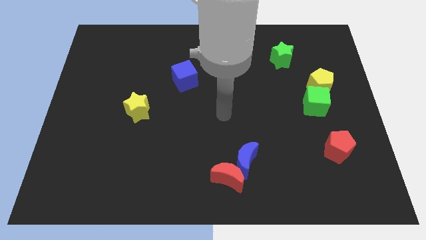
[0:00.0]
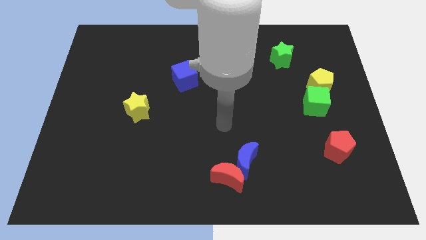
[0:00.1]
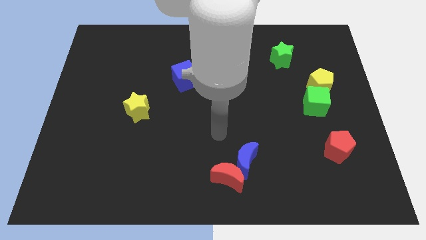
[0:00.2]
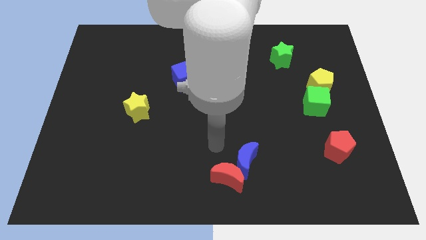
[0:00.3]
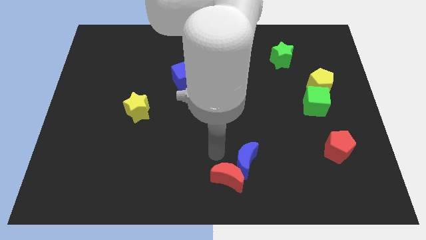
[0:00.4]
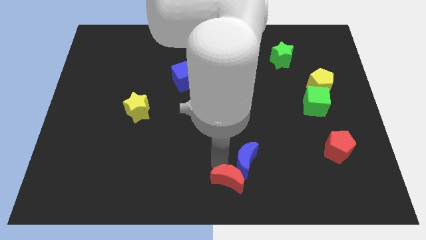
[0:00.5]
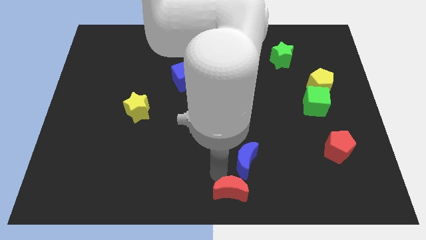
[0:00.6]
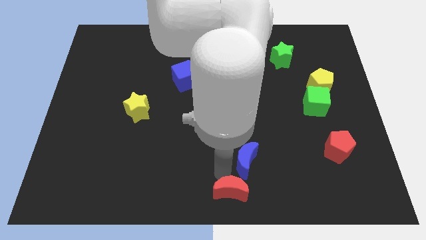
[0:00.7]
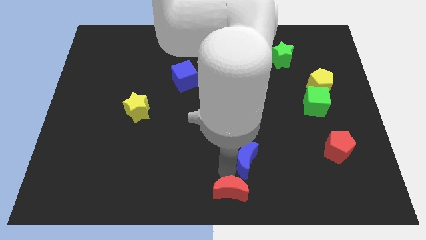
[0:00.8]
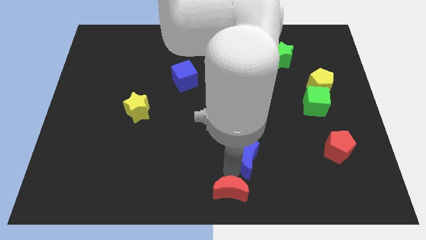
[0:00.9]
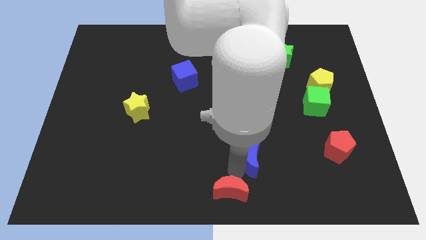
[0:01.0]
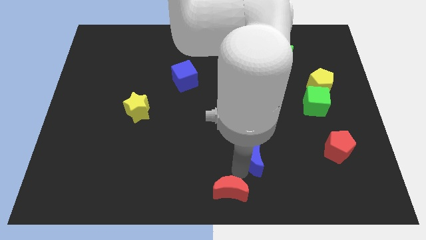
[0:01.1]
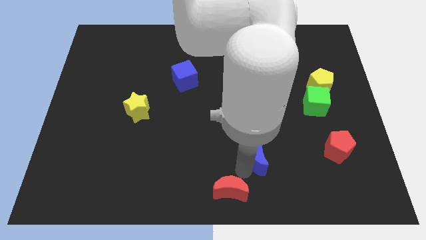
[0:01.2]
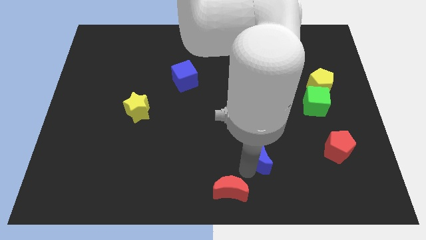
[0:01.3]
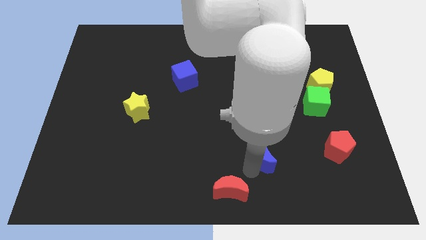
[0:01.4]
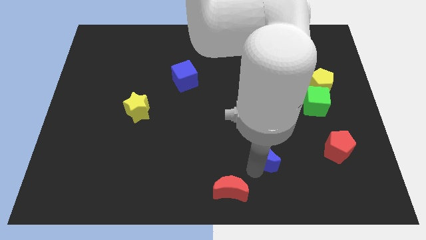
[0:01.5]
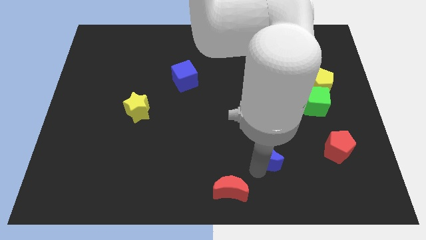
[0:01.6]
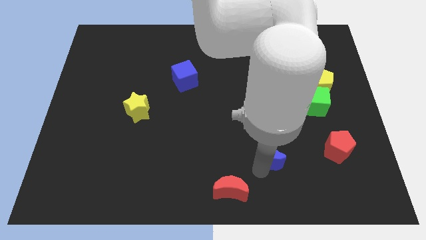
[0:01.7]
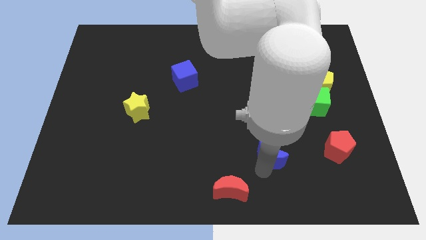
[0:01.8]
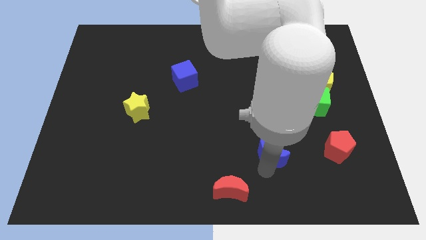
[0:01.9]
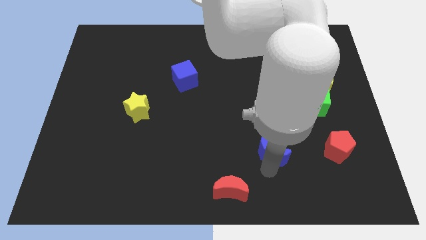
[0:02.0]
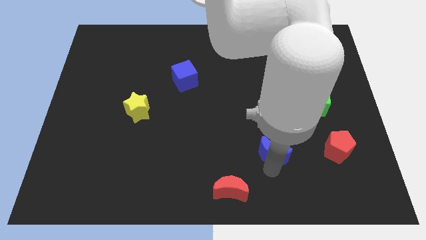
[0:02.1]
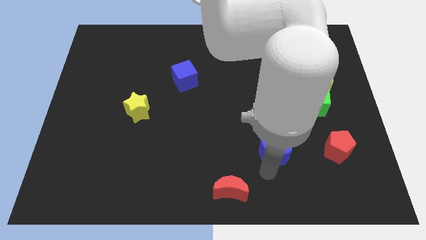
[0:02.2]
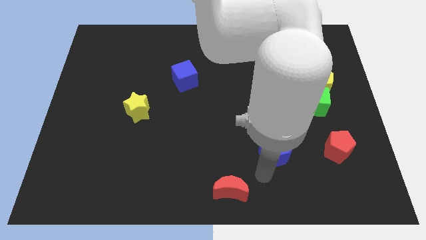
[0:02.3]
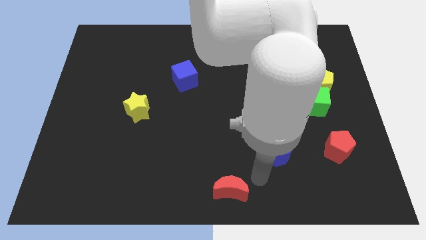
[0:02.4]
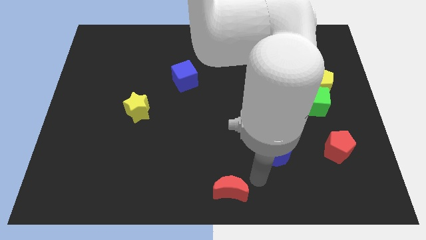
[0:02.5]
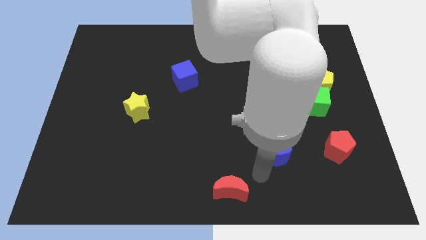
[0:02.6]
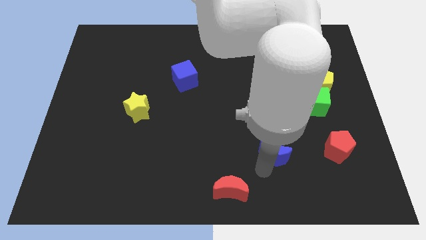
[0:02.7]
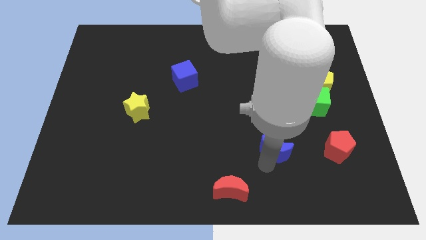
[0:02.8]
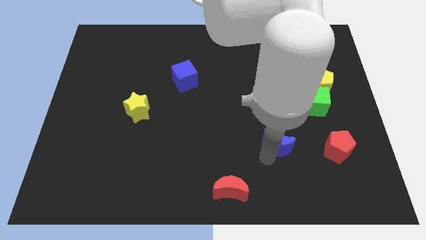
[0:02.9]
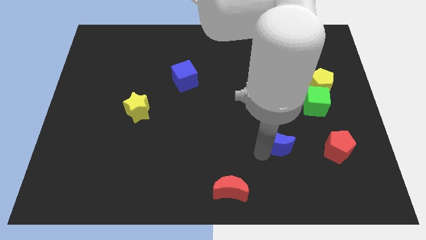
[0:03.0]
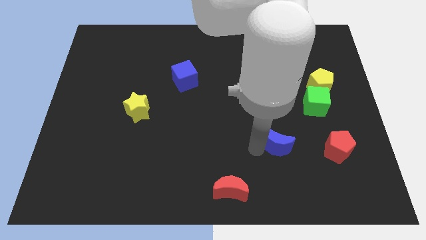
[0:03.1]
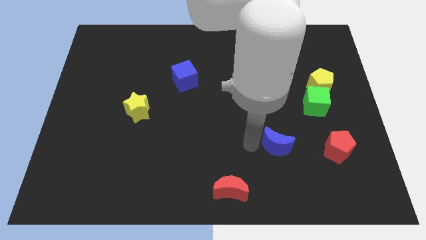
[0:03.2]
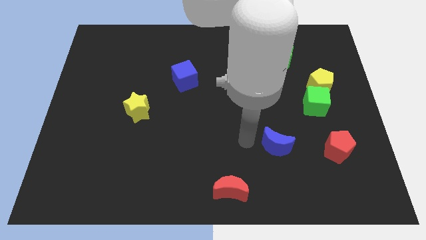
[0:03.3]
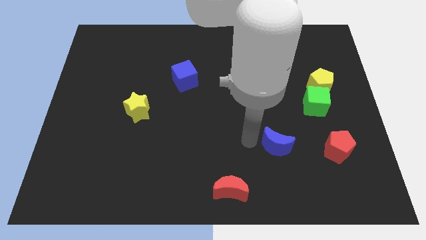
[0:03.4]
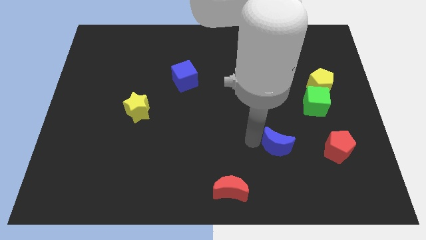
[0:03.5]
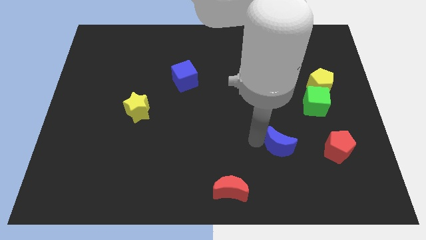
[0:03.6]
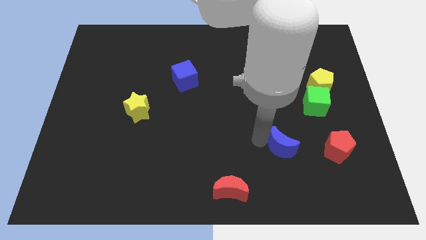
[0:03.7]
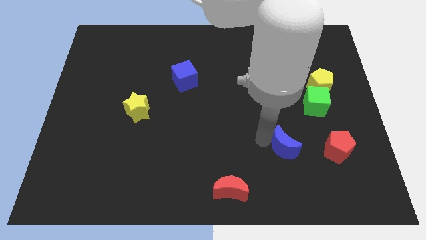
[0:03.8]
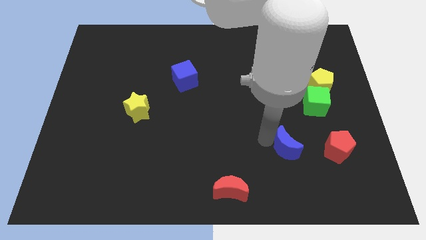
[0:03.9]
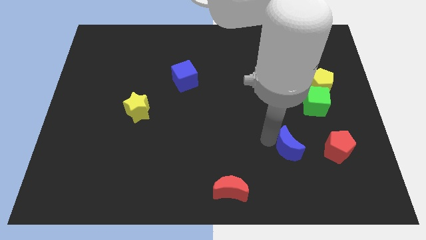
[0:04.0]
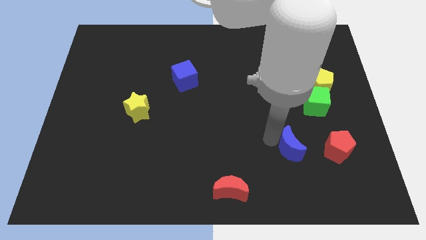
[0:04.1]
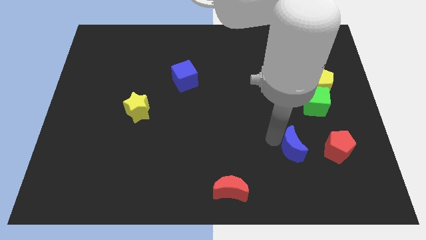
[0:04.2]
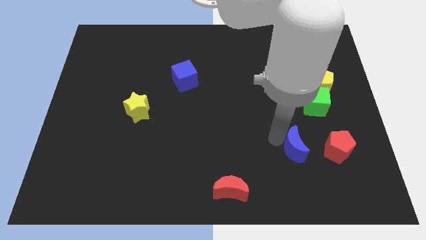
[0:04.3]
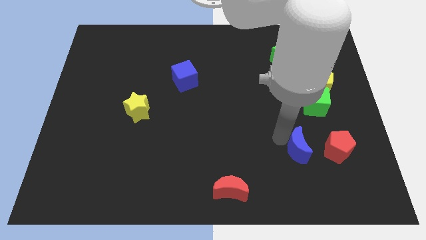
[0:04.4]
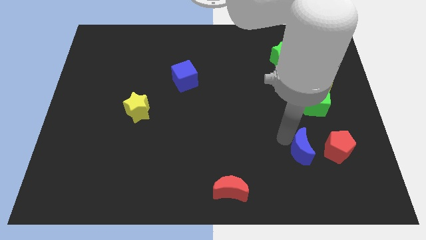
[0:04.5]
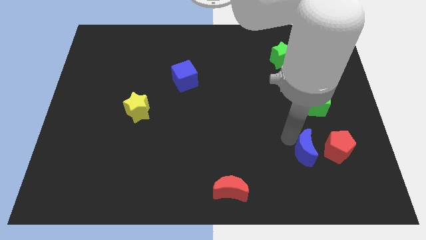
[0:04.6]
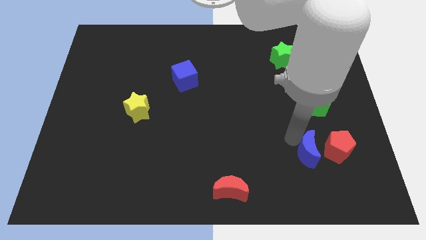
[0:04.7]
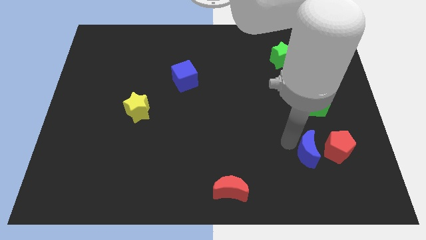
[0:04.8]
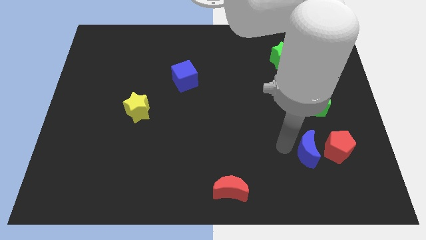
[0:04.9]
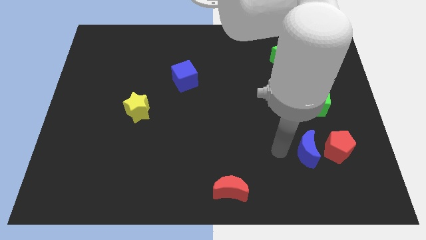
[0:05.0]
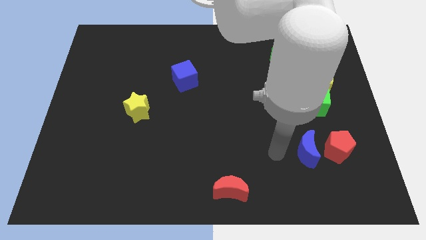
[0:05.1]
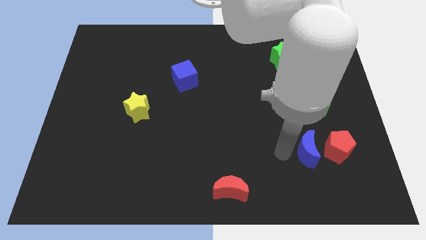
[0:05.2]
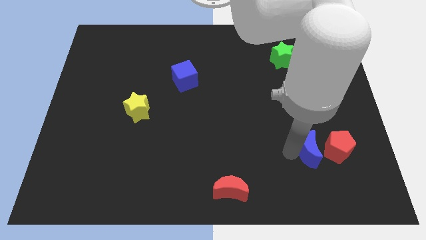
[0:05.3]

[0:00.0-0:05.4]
put the blue moon next to the red pentagon
